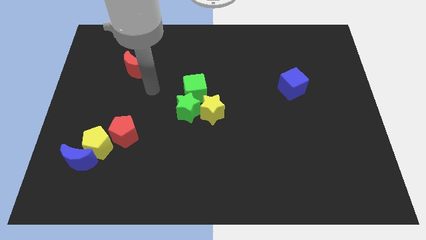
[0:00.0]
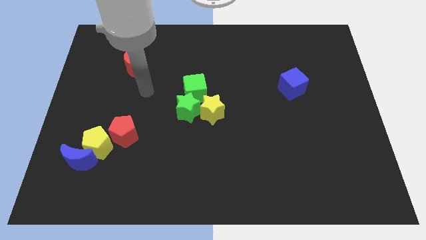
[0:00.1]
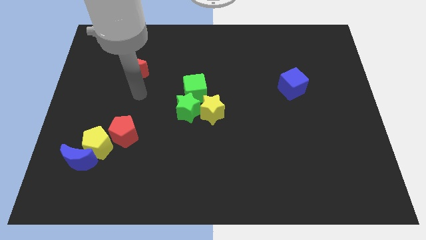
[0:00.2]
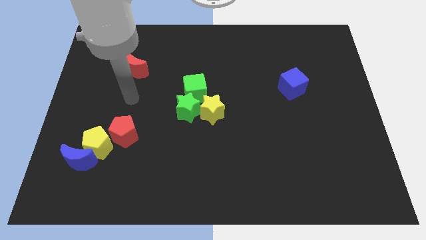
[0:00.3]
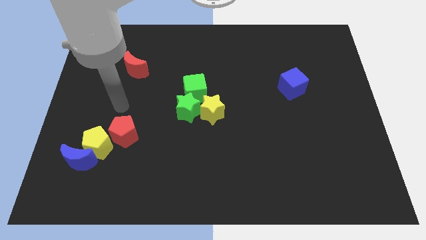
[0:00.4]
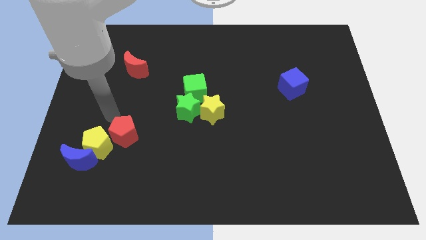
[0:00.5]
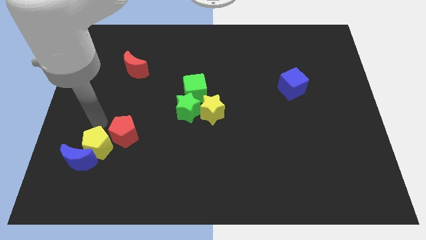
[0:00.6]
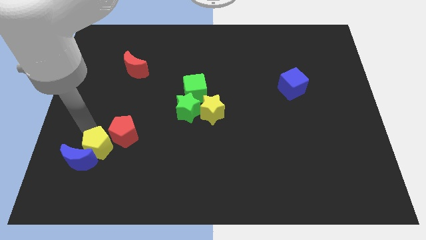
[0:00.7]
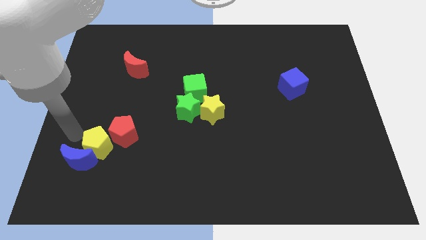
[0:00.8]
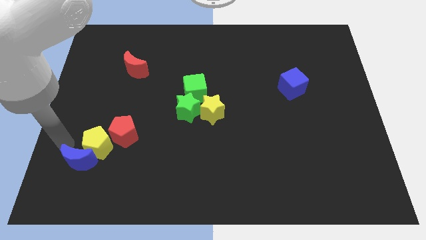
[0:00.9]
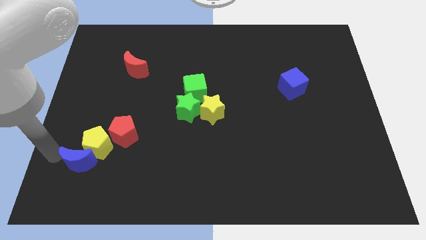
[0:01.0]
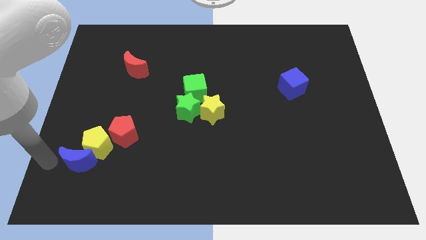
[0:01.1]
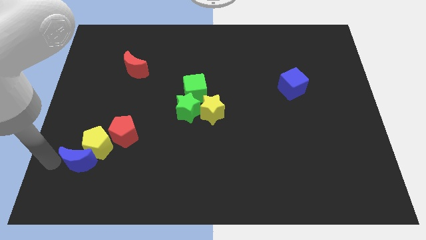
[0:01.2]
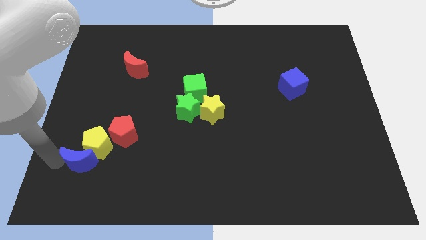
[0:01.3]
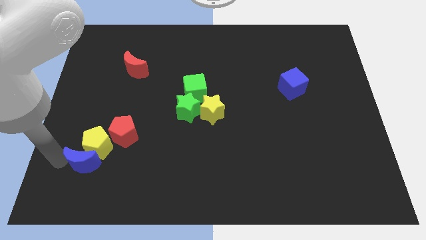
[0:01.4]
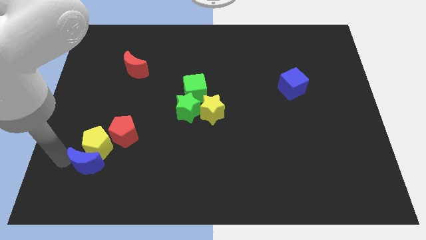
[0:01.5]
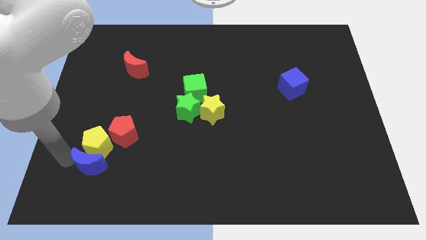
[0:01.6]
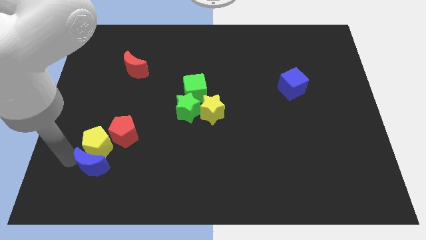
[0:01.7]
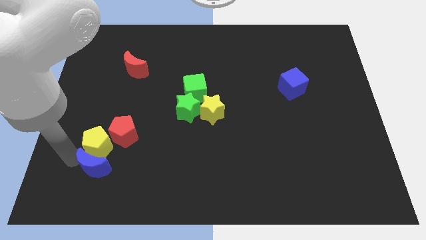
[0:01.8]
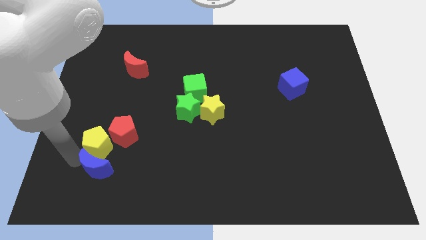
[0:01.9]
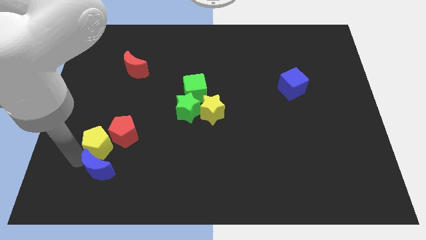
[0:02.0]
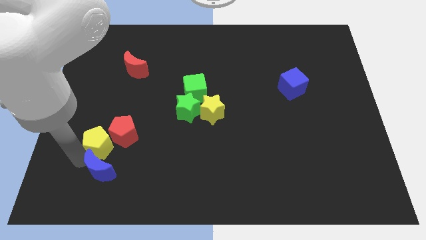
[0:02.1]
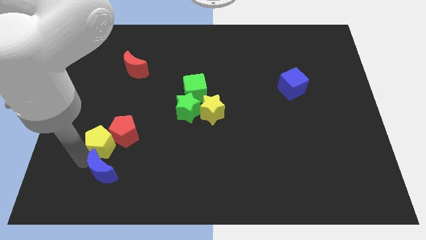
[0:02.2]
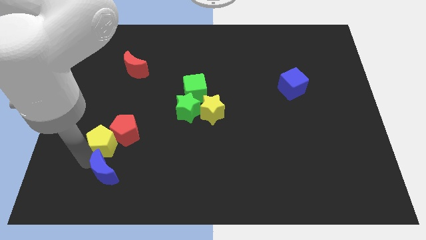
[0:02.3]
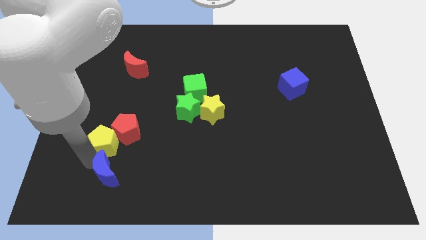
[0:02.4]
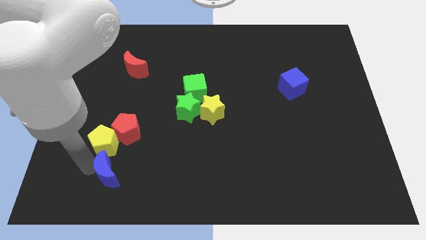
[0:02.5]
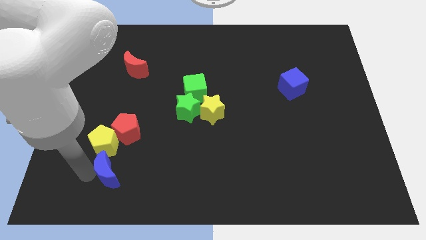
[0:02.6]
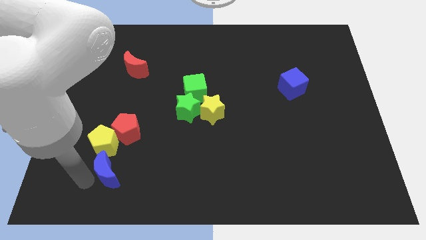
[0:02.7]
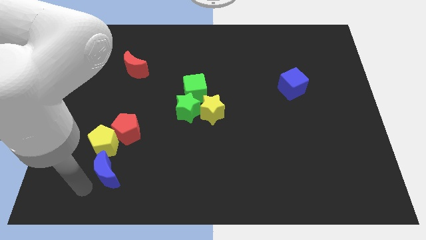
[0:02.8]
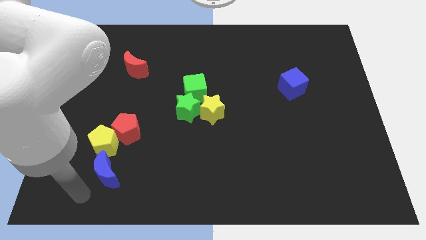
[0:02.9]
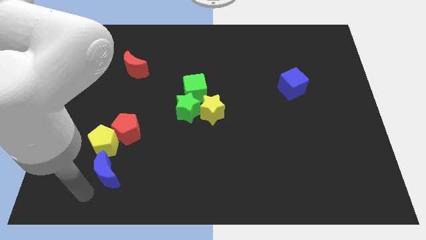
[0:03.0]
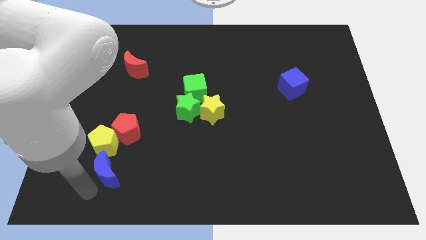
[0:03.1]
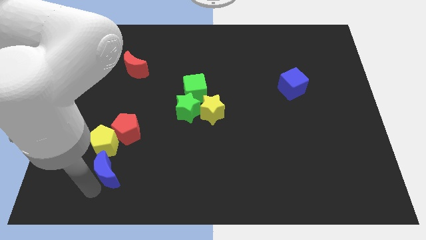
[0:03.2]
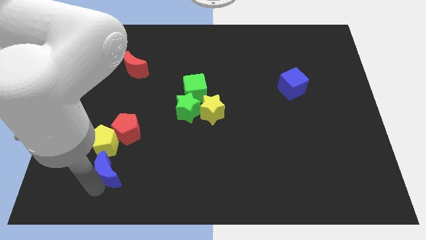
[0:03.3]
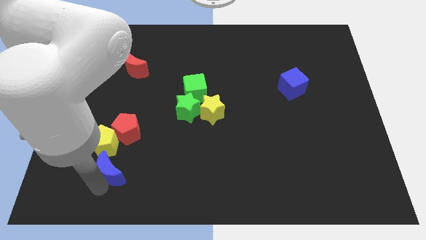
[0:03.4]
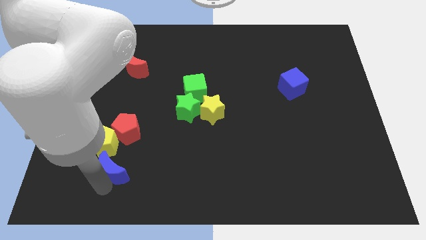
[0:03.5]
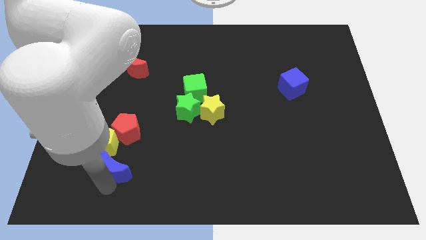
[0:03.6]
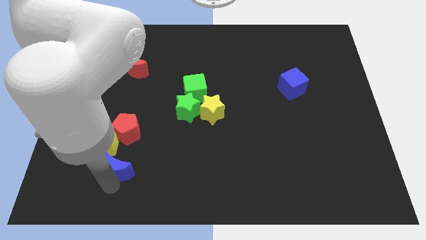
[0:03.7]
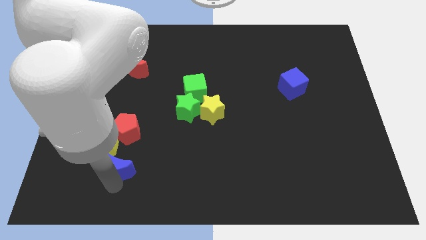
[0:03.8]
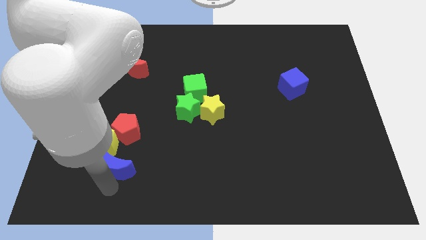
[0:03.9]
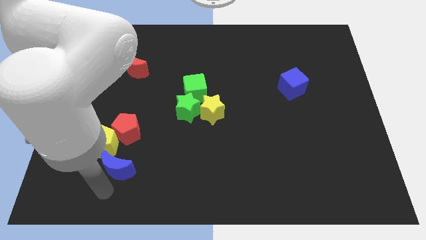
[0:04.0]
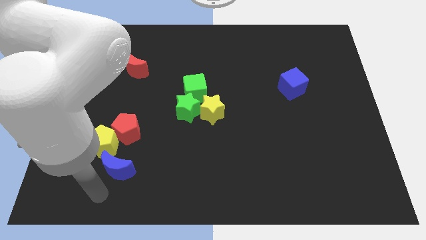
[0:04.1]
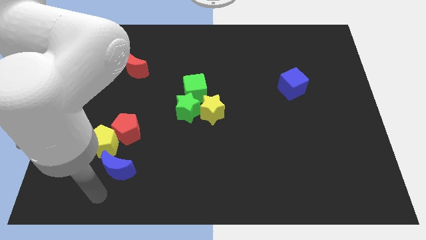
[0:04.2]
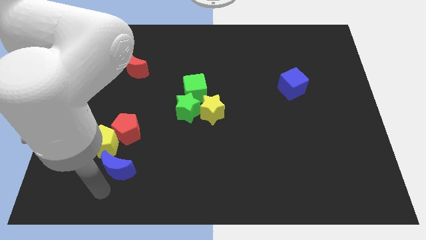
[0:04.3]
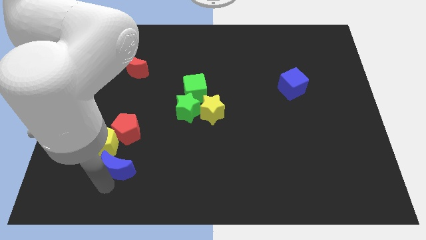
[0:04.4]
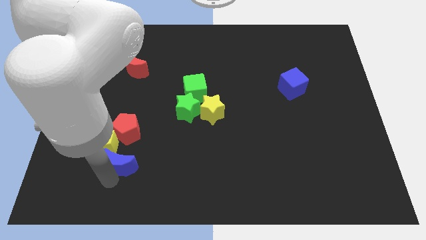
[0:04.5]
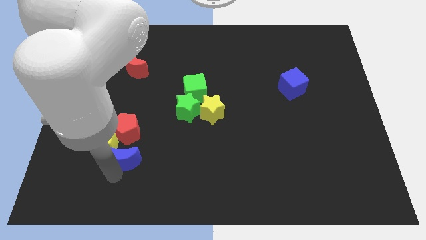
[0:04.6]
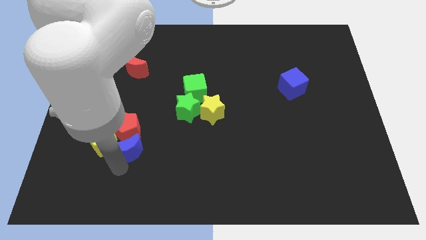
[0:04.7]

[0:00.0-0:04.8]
slightly move the blue moon up and then to the right

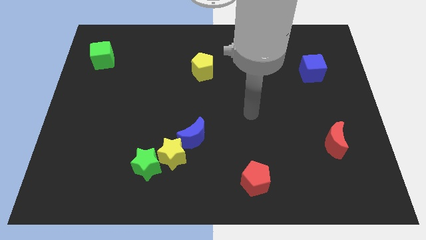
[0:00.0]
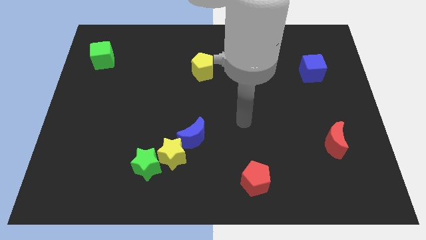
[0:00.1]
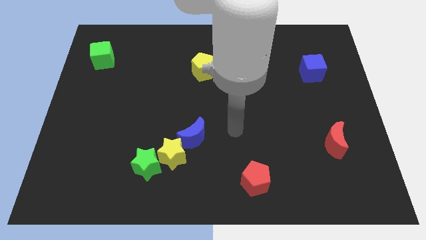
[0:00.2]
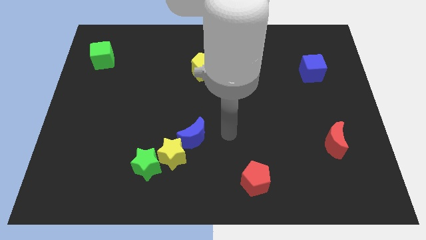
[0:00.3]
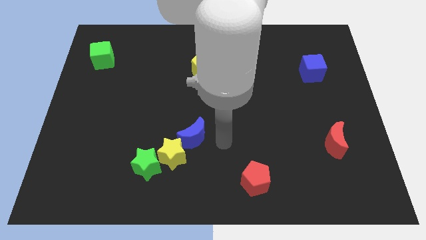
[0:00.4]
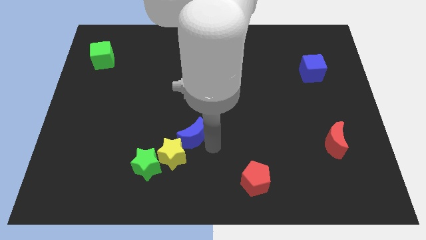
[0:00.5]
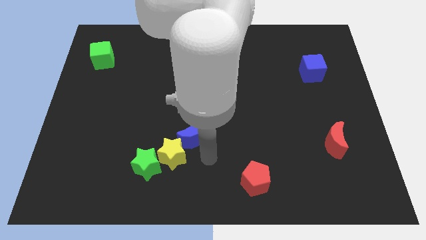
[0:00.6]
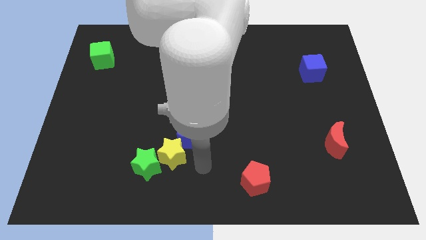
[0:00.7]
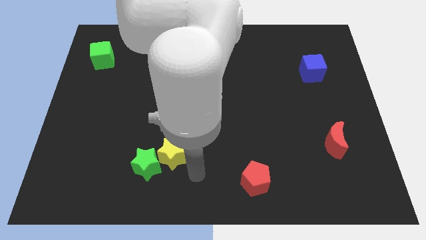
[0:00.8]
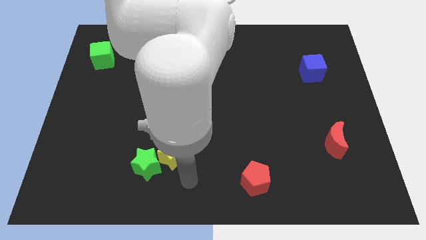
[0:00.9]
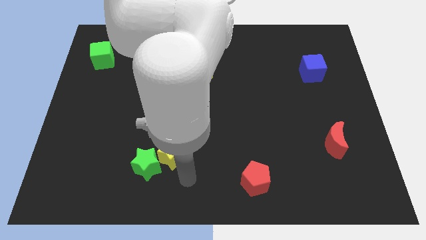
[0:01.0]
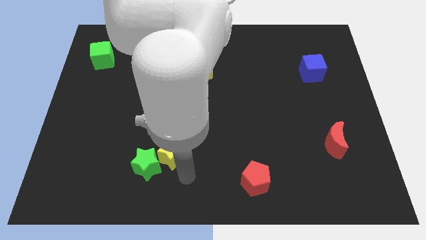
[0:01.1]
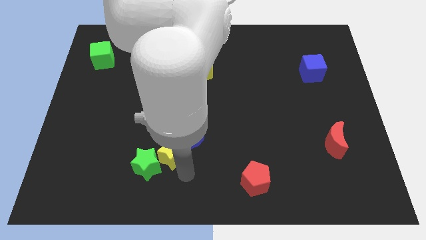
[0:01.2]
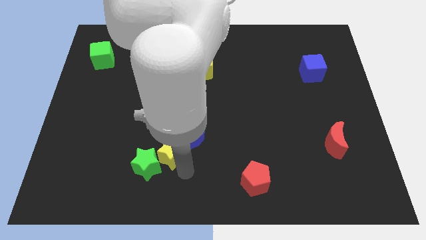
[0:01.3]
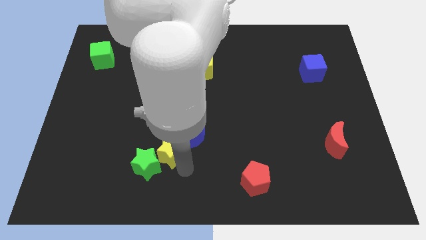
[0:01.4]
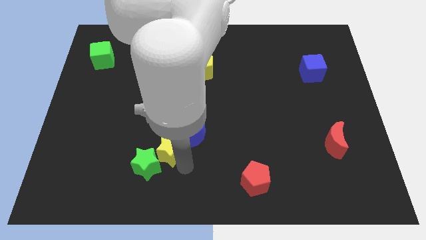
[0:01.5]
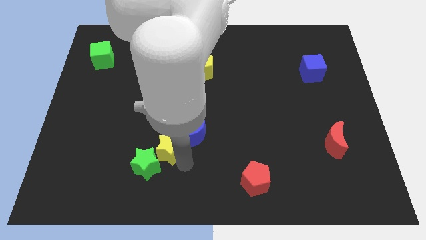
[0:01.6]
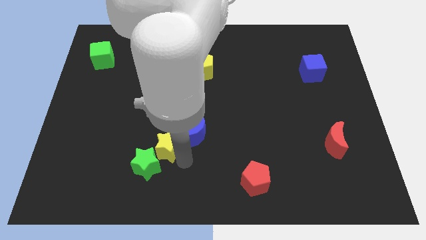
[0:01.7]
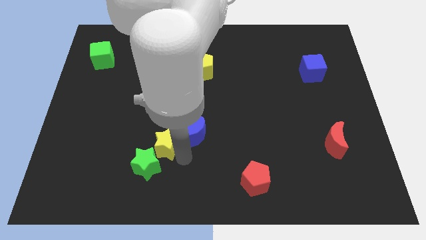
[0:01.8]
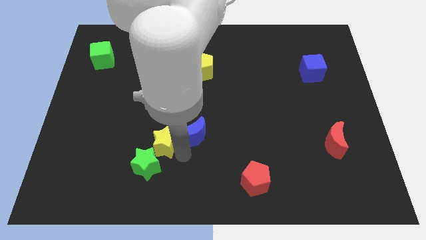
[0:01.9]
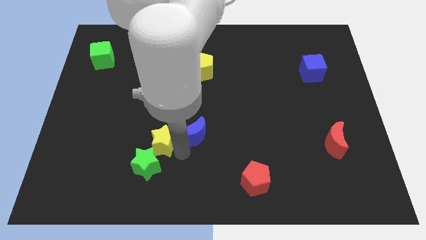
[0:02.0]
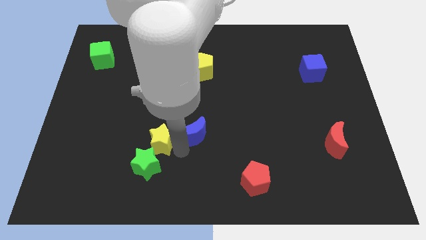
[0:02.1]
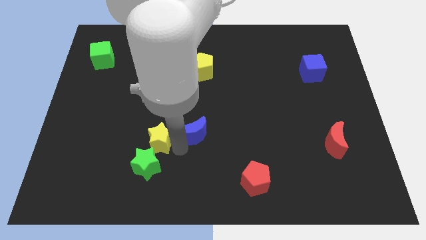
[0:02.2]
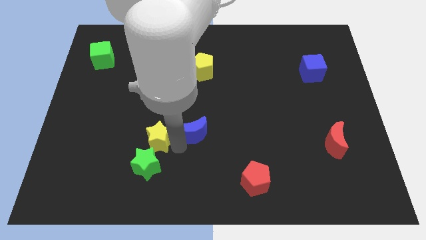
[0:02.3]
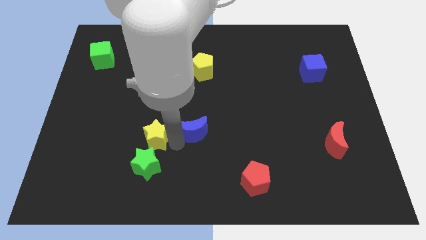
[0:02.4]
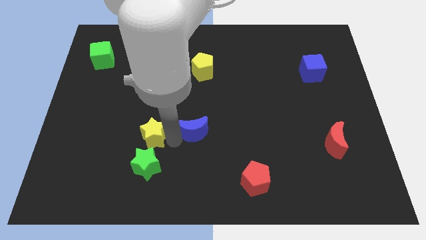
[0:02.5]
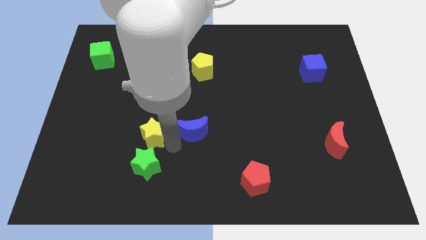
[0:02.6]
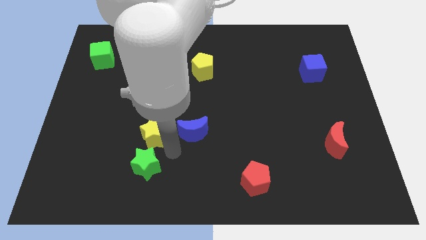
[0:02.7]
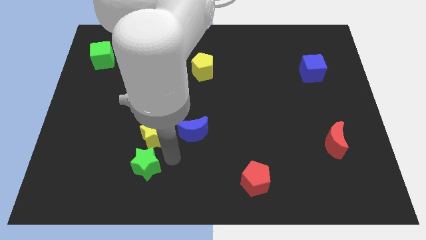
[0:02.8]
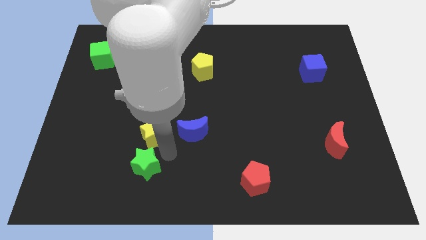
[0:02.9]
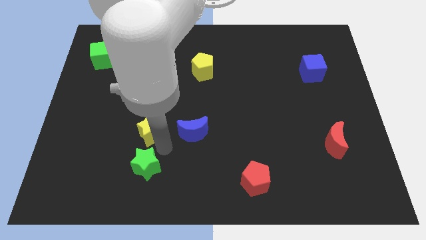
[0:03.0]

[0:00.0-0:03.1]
push the yellow star a little bit diagonally up and to the left

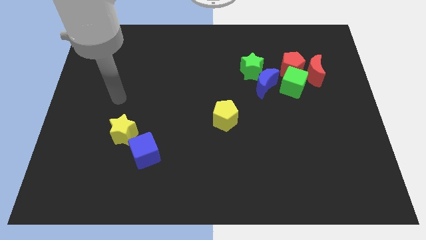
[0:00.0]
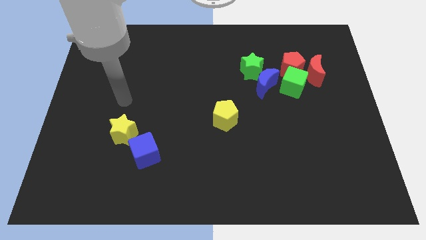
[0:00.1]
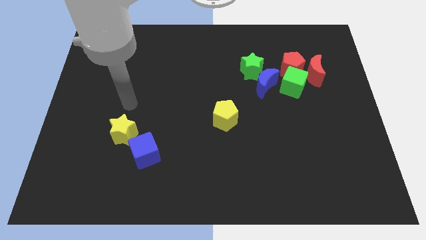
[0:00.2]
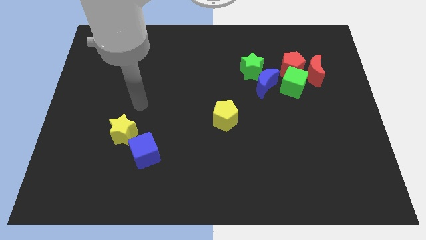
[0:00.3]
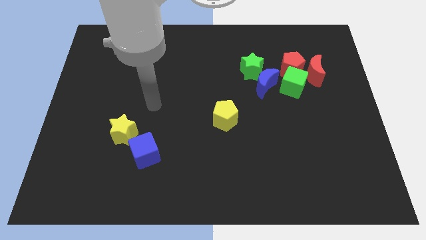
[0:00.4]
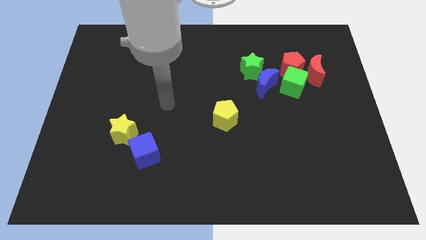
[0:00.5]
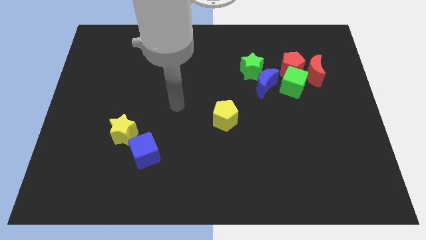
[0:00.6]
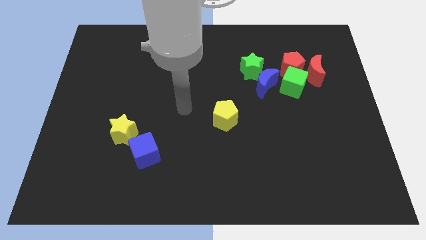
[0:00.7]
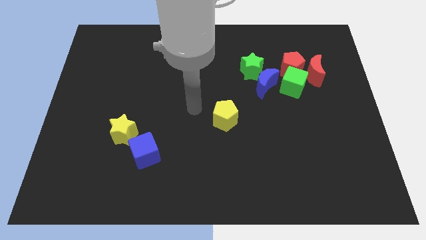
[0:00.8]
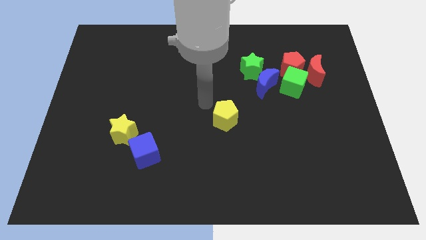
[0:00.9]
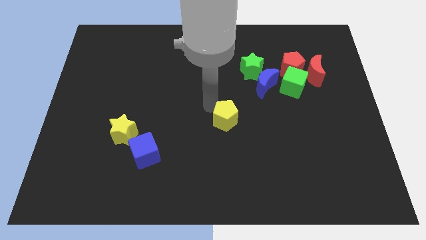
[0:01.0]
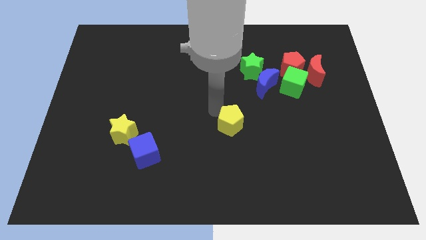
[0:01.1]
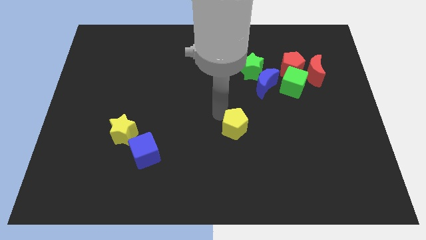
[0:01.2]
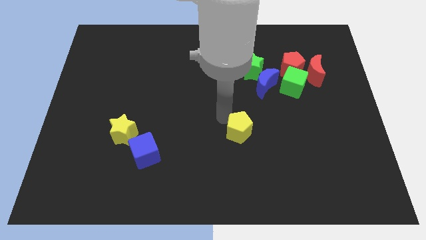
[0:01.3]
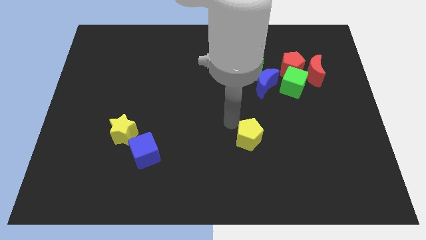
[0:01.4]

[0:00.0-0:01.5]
slightly move the yellow pentagon diagonally downwards and right
